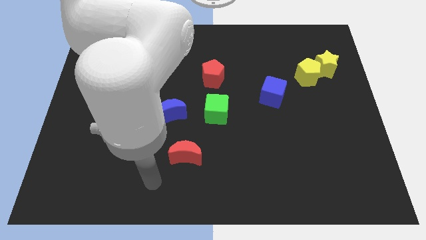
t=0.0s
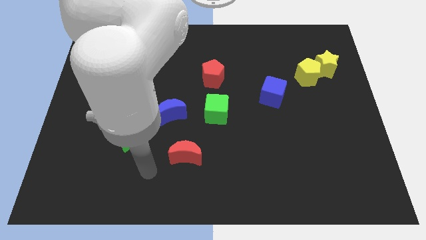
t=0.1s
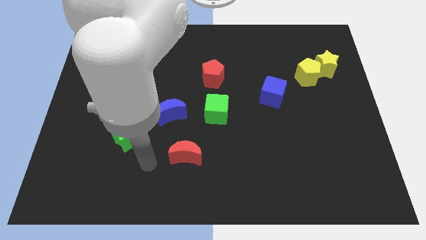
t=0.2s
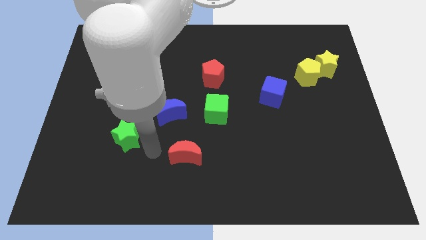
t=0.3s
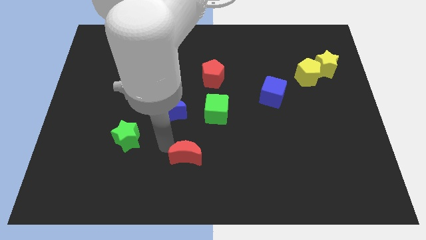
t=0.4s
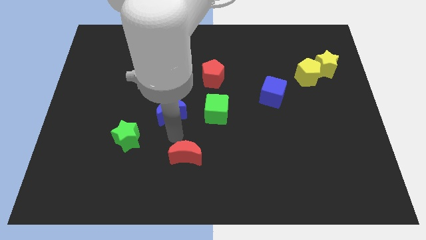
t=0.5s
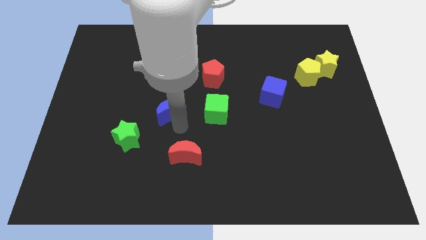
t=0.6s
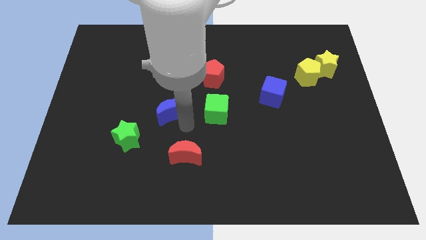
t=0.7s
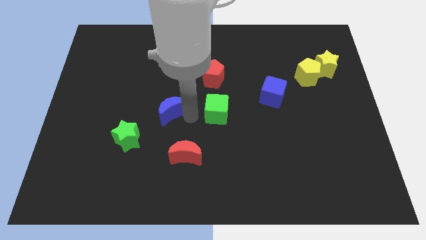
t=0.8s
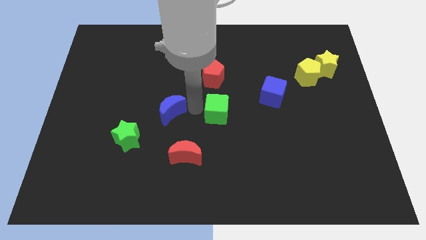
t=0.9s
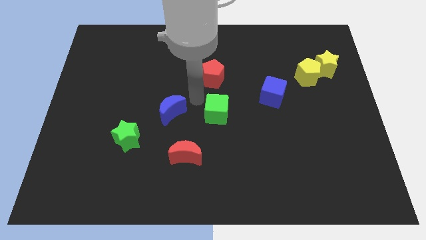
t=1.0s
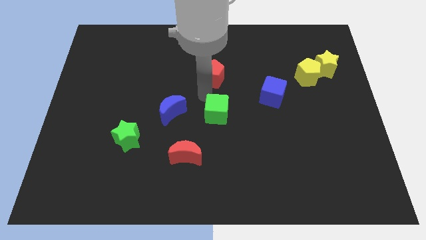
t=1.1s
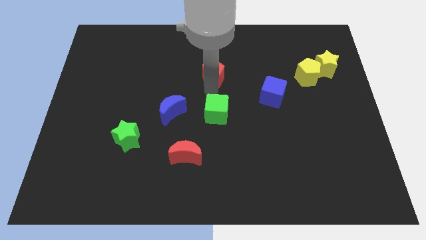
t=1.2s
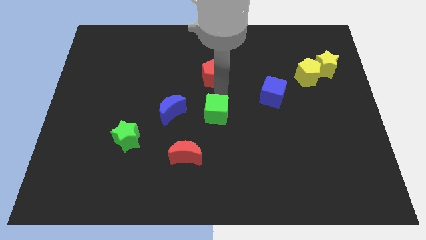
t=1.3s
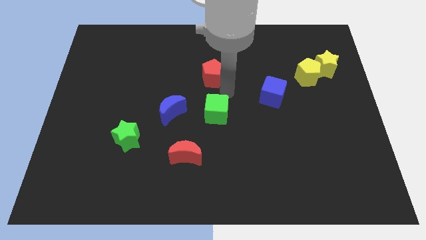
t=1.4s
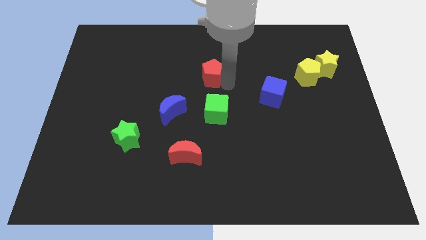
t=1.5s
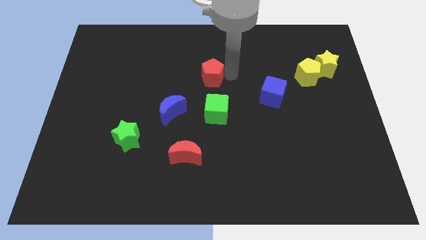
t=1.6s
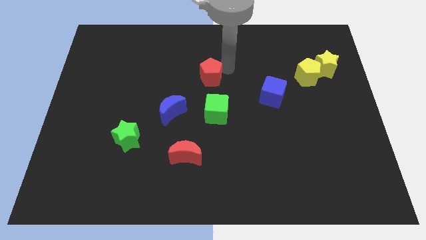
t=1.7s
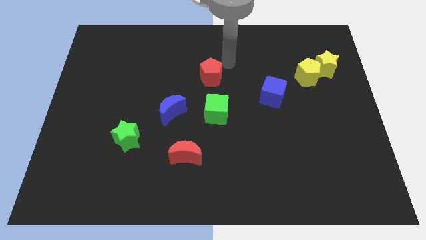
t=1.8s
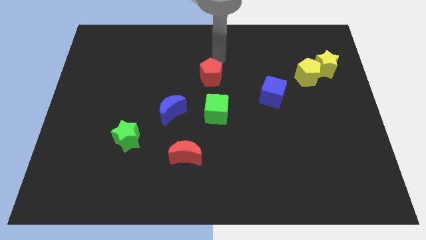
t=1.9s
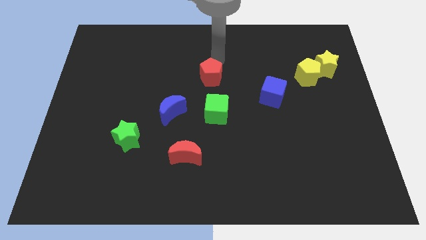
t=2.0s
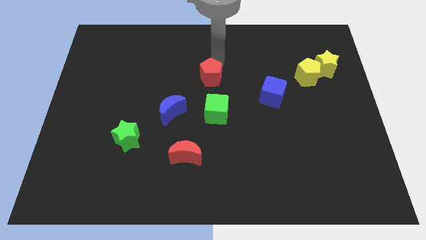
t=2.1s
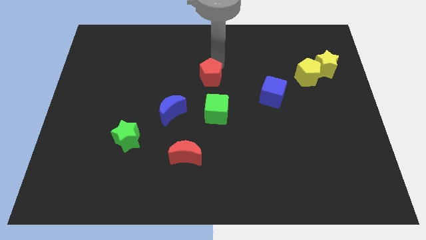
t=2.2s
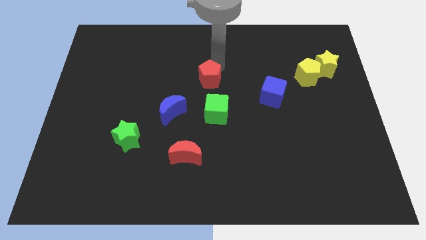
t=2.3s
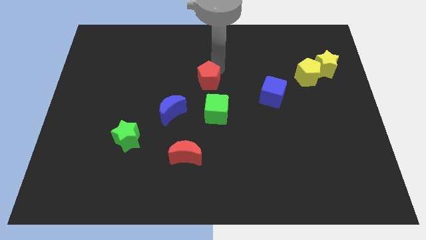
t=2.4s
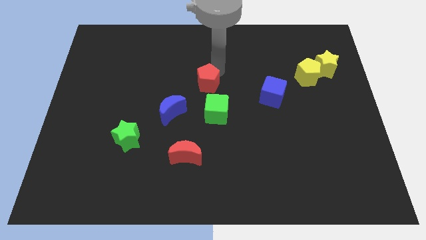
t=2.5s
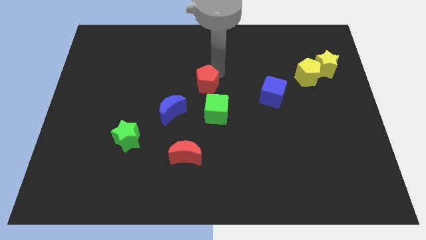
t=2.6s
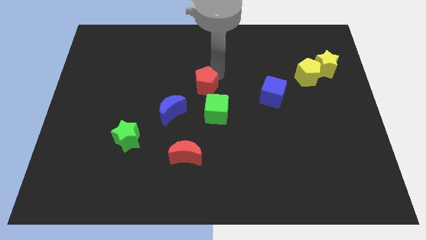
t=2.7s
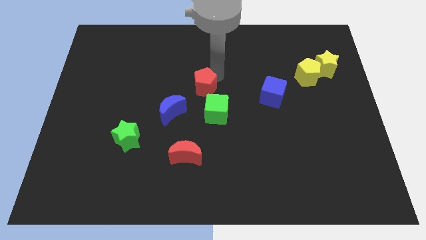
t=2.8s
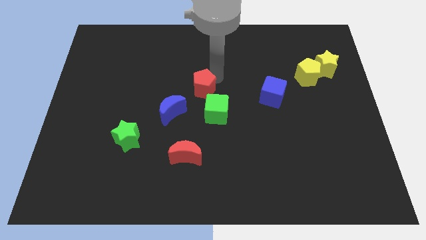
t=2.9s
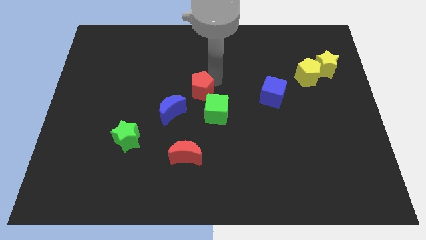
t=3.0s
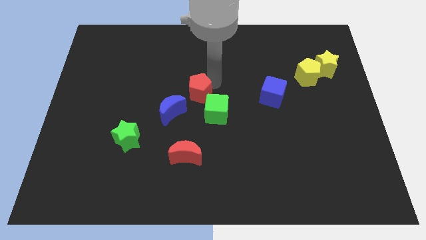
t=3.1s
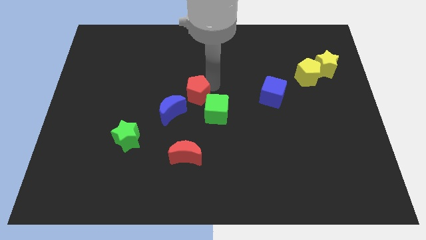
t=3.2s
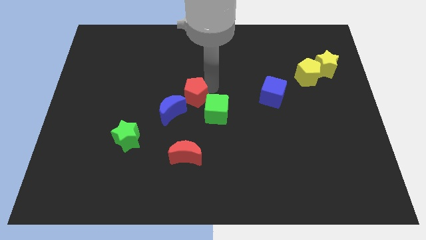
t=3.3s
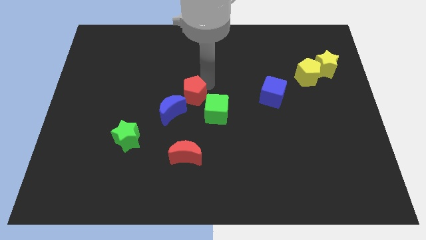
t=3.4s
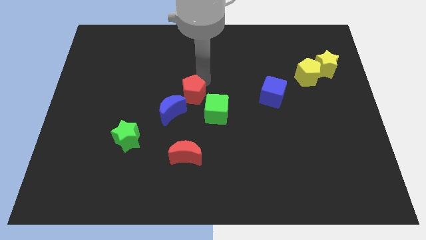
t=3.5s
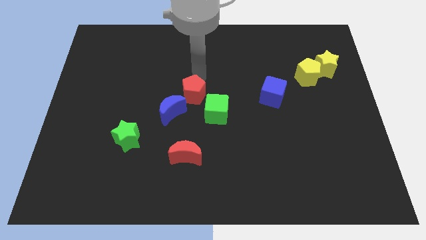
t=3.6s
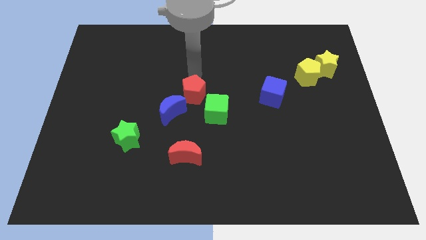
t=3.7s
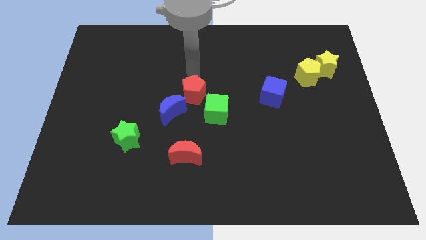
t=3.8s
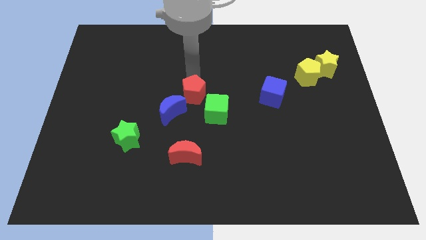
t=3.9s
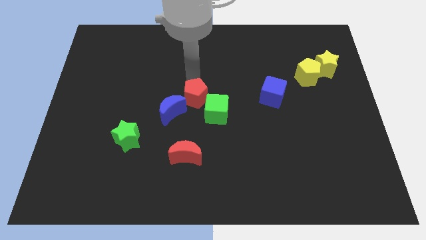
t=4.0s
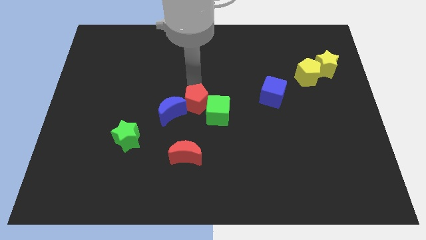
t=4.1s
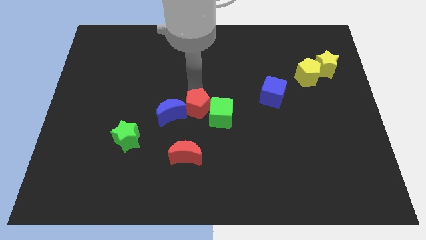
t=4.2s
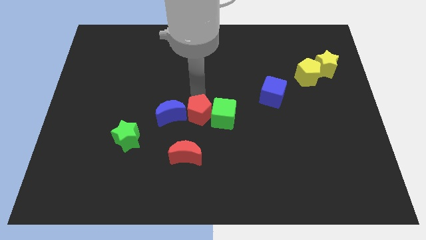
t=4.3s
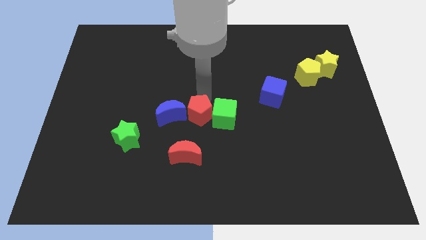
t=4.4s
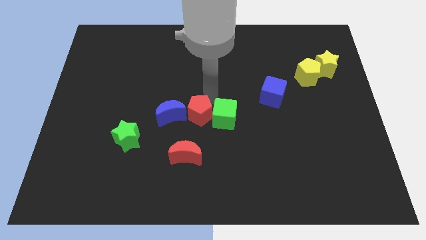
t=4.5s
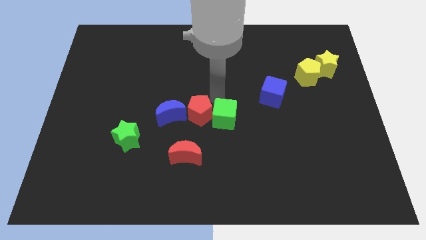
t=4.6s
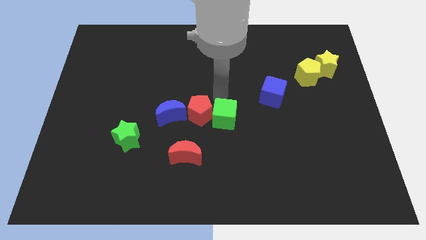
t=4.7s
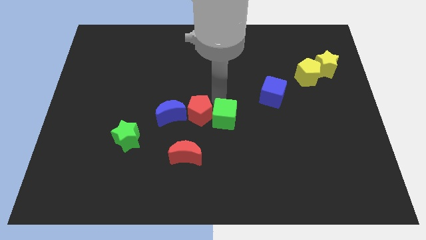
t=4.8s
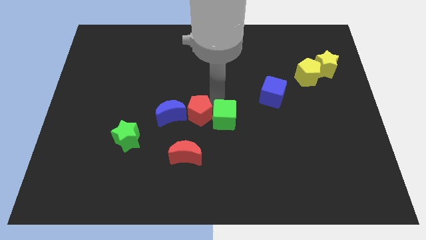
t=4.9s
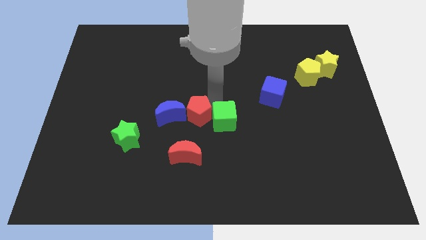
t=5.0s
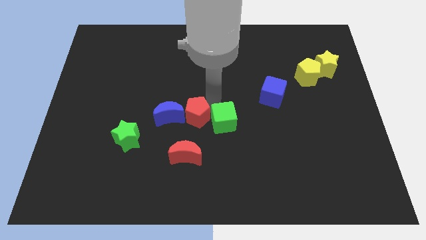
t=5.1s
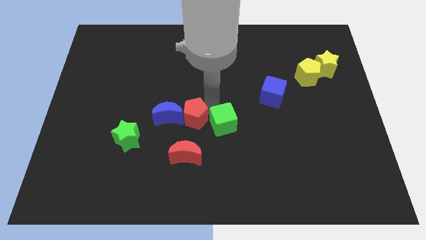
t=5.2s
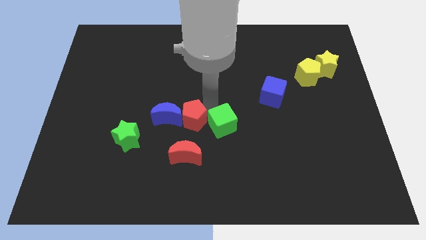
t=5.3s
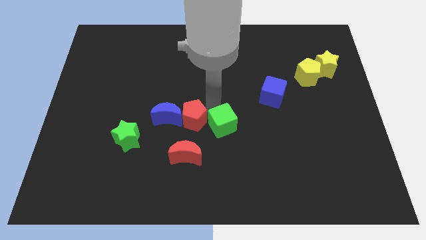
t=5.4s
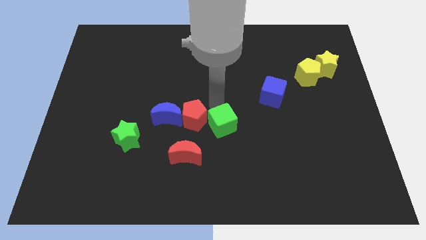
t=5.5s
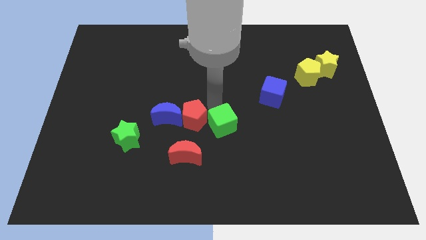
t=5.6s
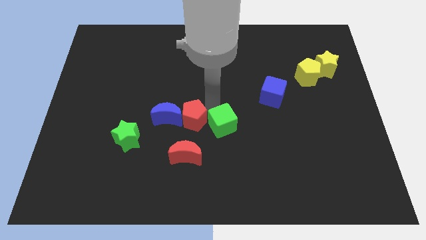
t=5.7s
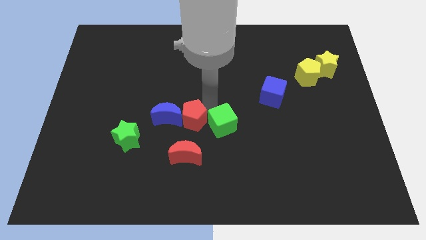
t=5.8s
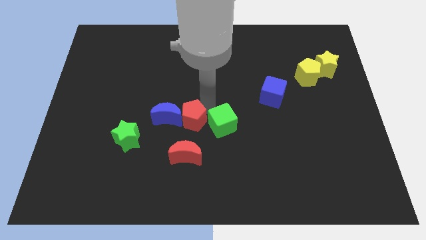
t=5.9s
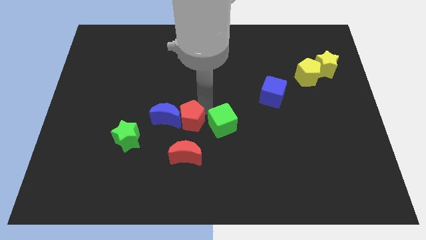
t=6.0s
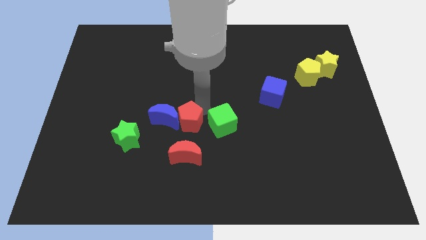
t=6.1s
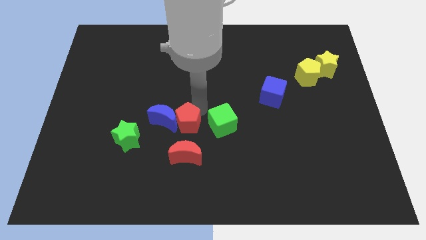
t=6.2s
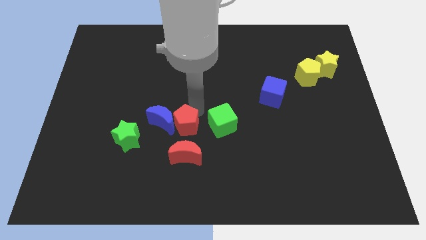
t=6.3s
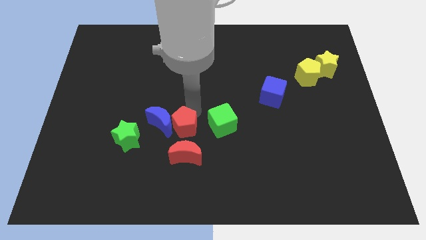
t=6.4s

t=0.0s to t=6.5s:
put the red pentagon to the top left side of the red moon
